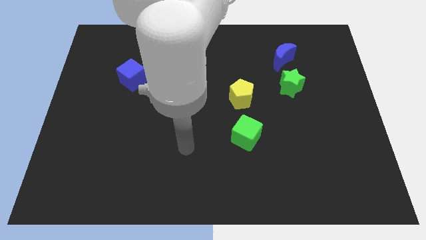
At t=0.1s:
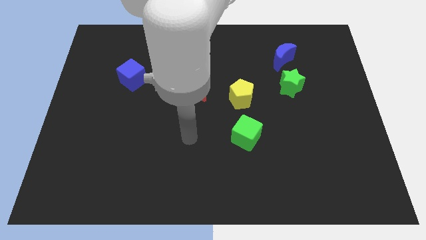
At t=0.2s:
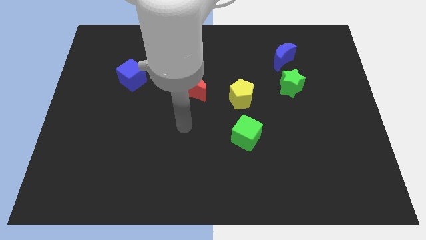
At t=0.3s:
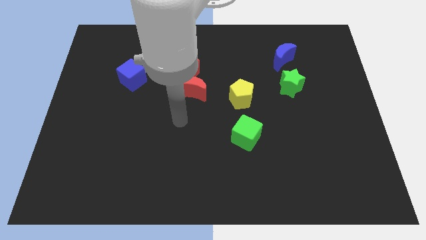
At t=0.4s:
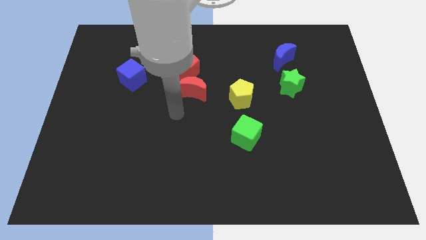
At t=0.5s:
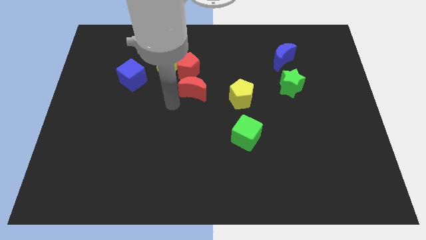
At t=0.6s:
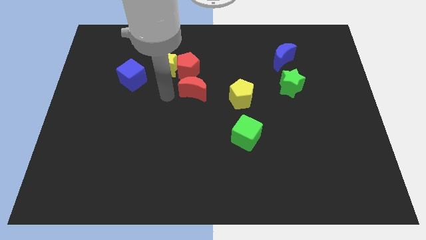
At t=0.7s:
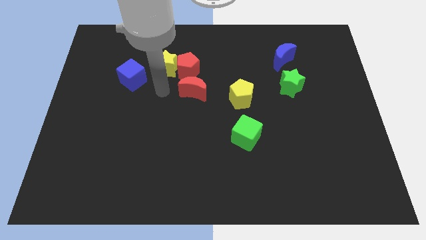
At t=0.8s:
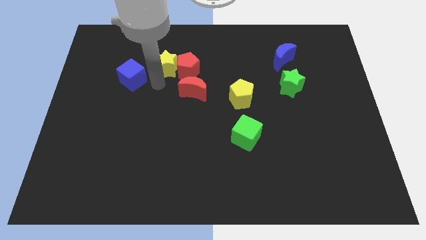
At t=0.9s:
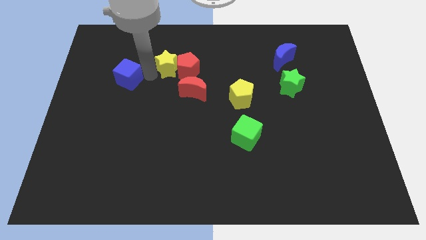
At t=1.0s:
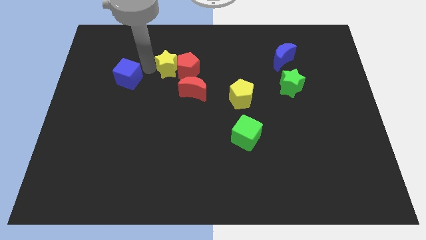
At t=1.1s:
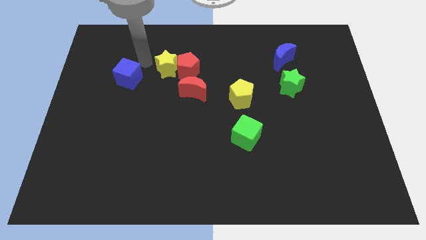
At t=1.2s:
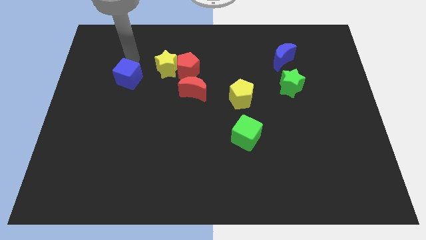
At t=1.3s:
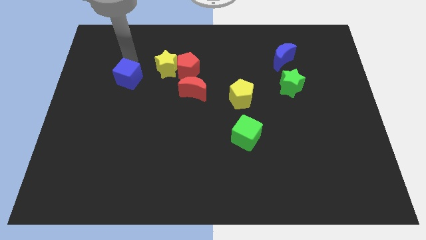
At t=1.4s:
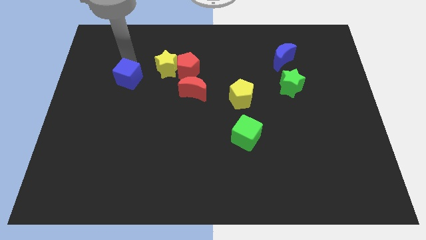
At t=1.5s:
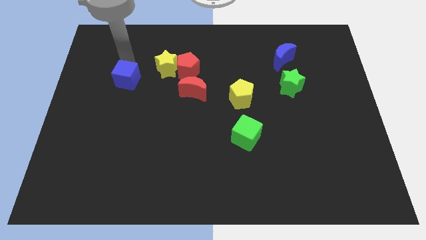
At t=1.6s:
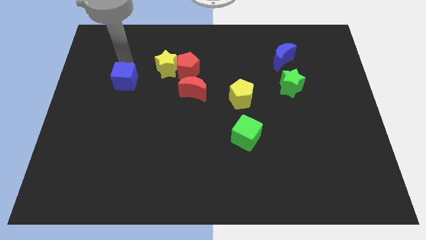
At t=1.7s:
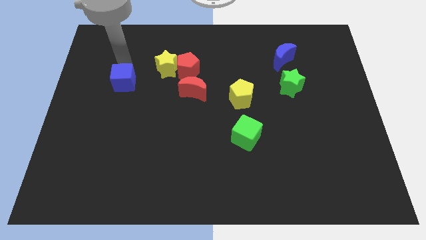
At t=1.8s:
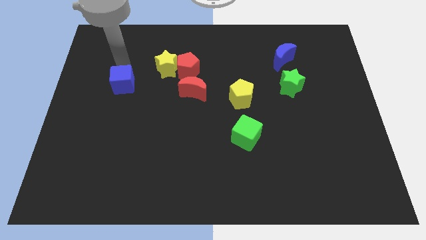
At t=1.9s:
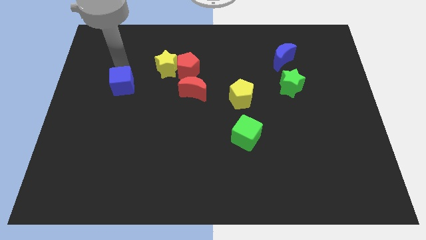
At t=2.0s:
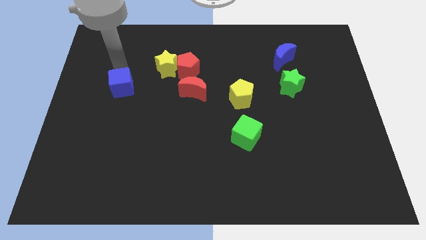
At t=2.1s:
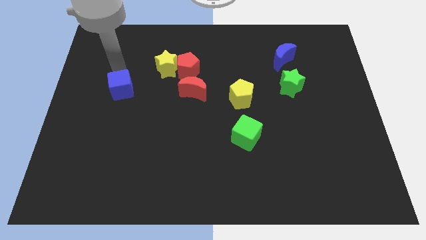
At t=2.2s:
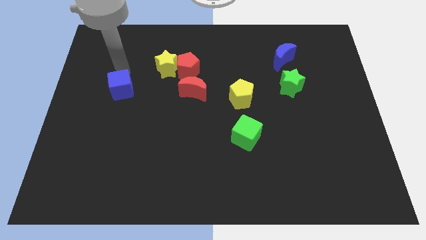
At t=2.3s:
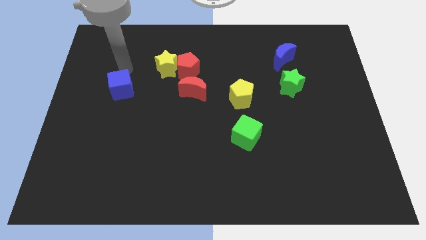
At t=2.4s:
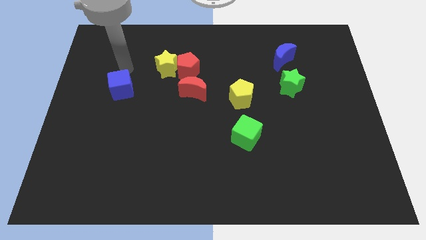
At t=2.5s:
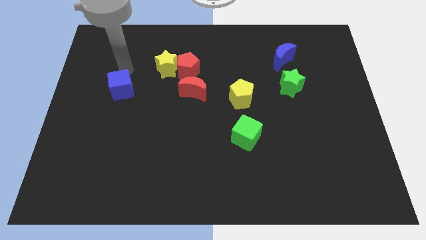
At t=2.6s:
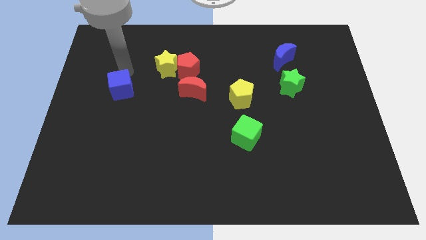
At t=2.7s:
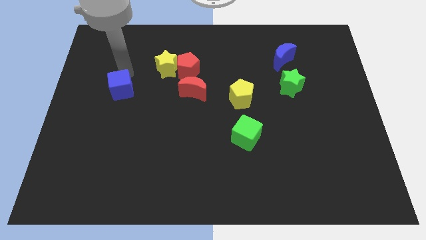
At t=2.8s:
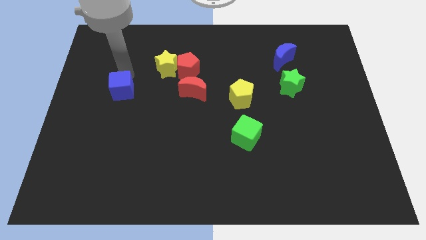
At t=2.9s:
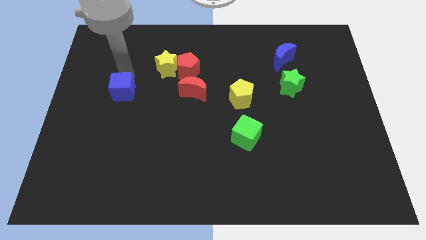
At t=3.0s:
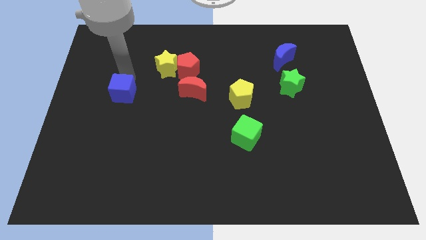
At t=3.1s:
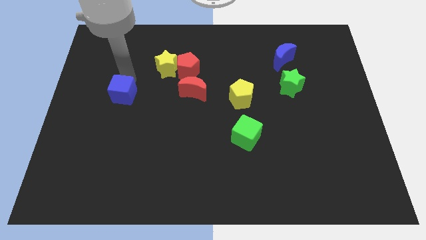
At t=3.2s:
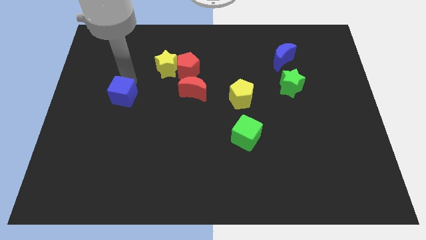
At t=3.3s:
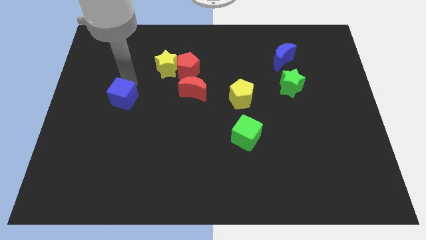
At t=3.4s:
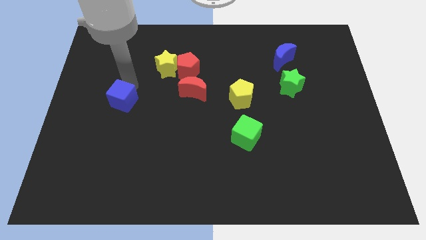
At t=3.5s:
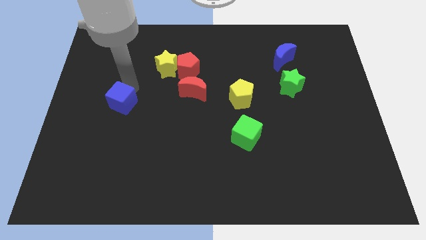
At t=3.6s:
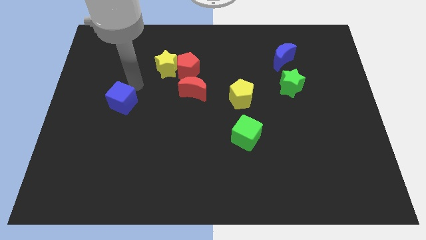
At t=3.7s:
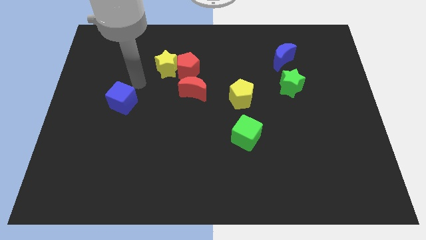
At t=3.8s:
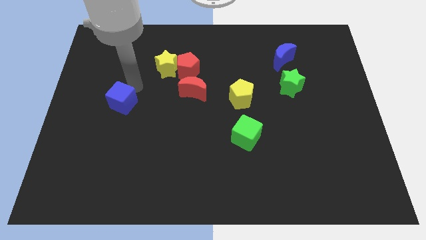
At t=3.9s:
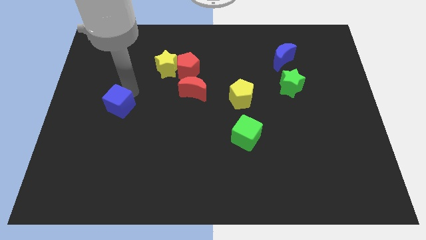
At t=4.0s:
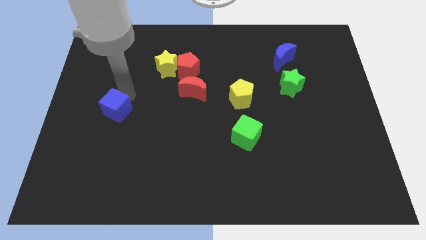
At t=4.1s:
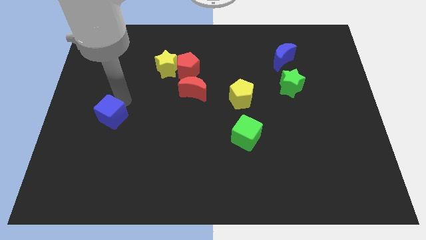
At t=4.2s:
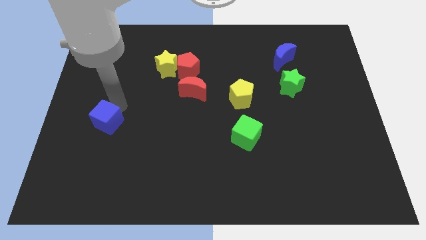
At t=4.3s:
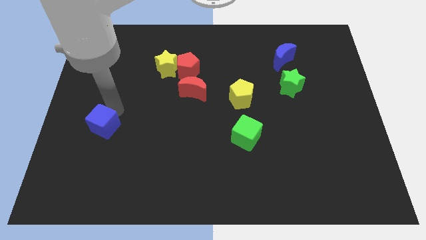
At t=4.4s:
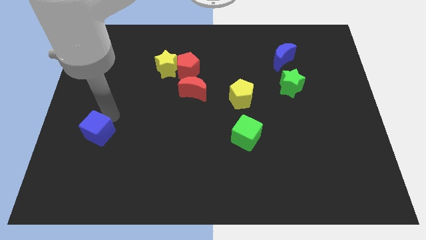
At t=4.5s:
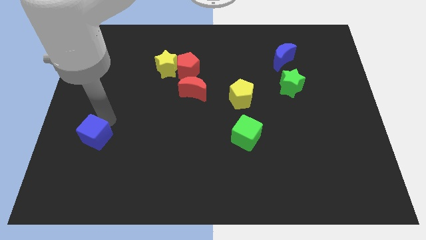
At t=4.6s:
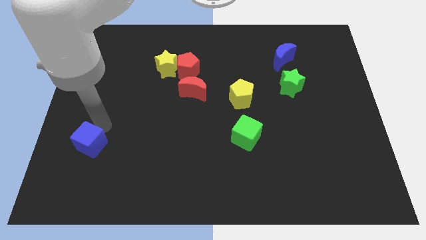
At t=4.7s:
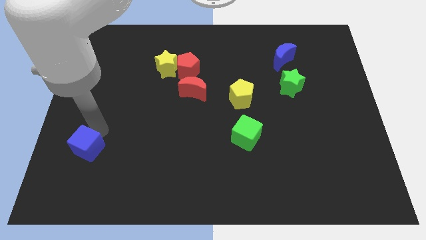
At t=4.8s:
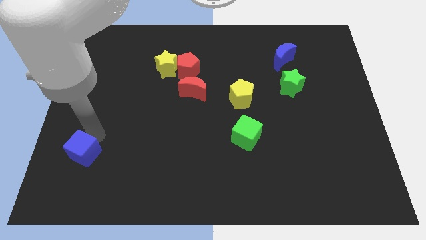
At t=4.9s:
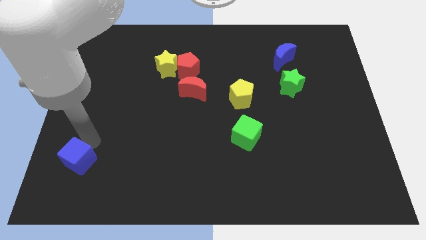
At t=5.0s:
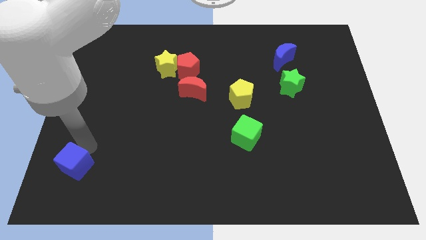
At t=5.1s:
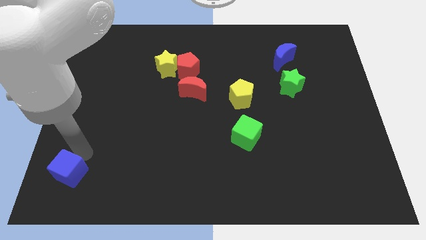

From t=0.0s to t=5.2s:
slide the blue cube to the bottom left corner

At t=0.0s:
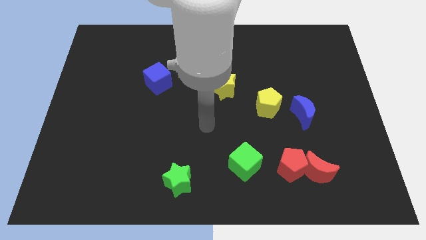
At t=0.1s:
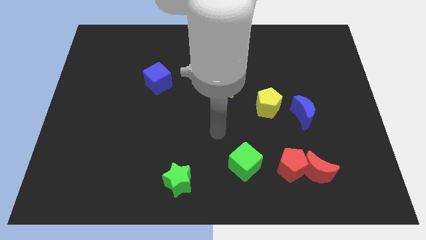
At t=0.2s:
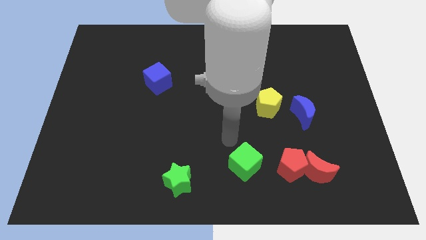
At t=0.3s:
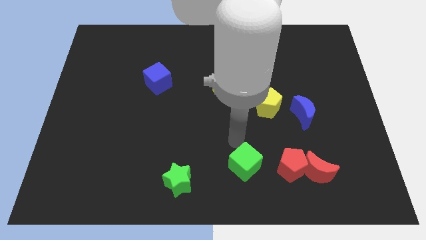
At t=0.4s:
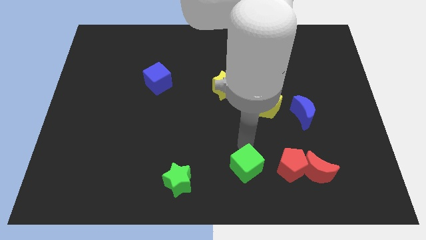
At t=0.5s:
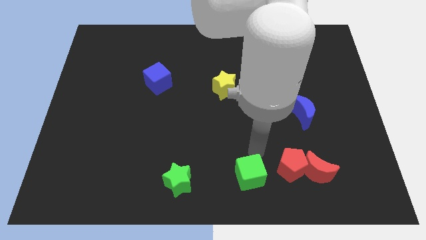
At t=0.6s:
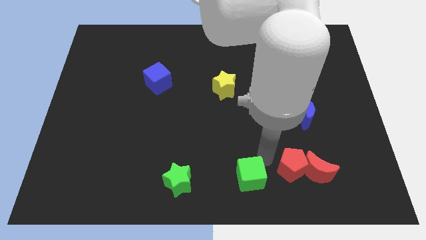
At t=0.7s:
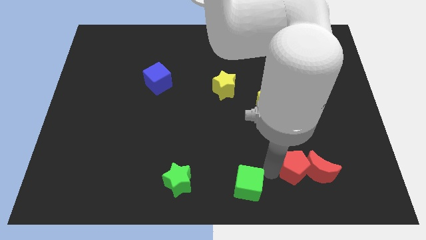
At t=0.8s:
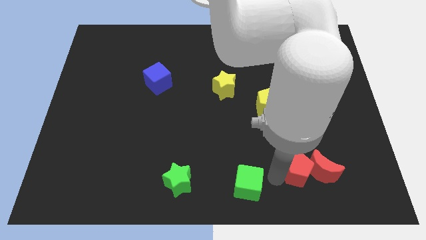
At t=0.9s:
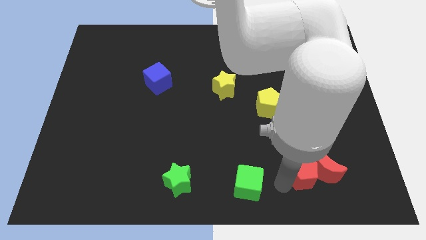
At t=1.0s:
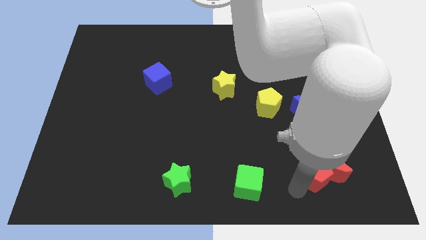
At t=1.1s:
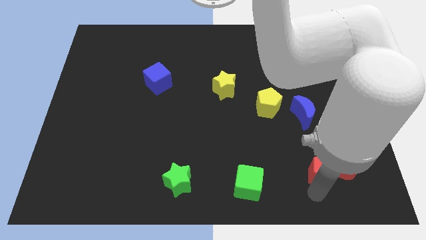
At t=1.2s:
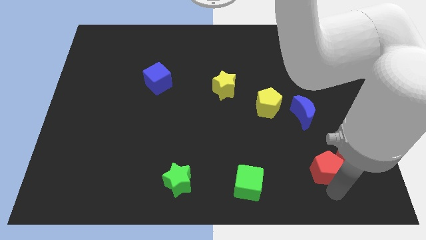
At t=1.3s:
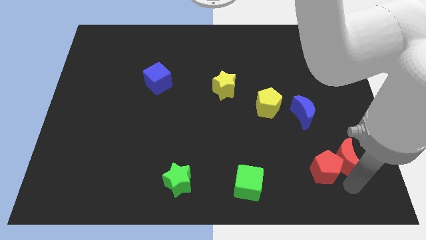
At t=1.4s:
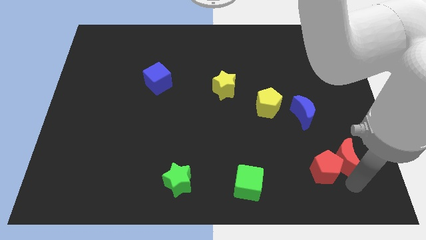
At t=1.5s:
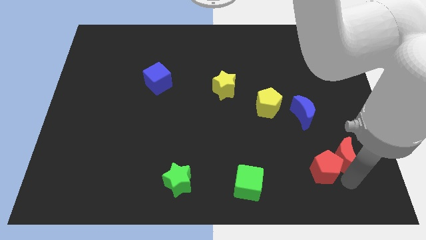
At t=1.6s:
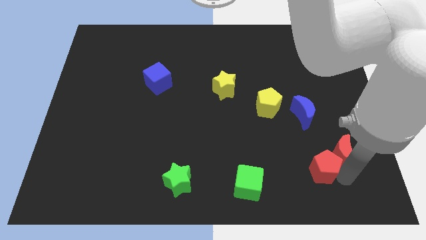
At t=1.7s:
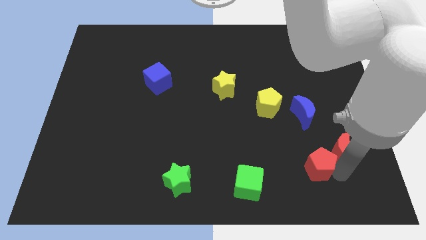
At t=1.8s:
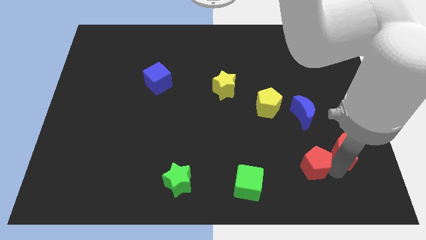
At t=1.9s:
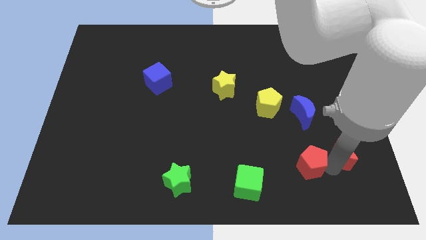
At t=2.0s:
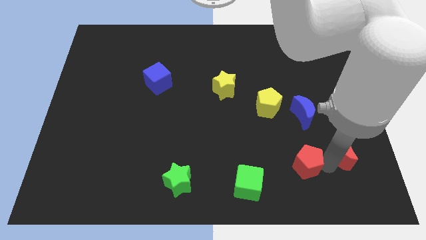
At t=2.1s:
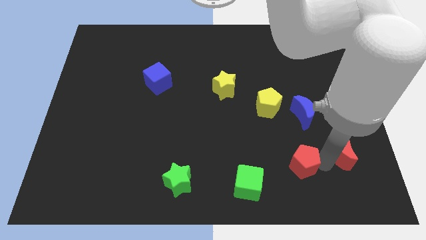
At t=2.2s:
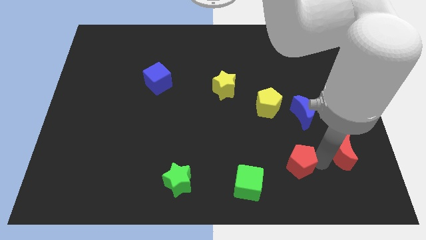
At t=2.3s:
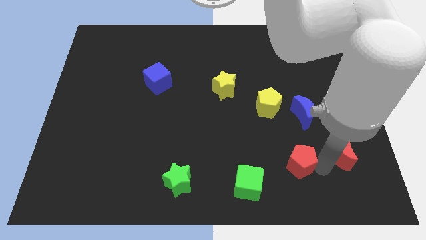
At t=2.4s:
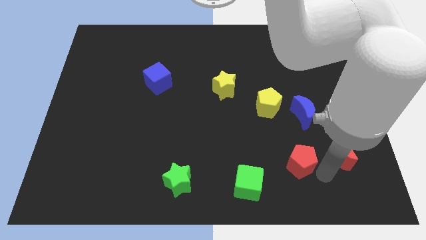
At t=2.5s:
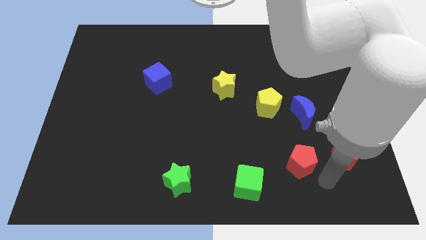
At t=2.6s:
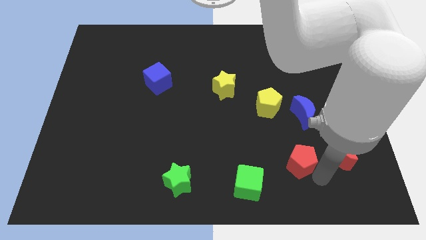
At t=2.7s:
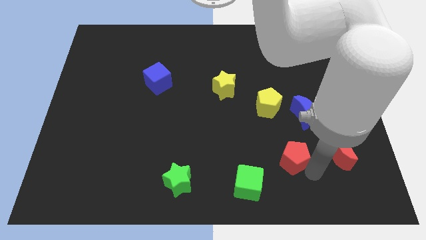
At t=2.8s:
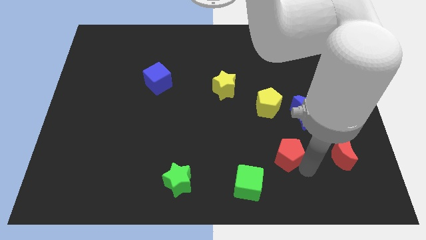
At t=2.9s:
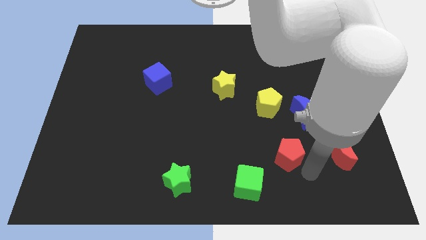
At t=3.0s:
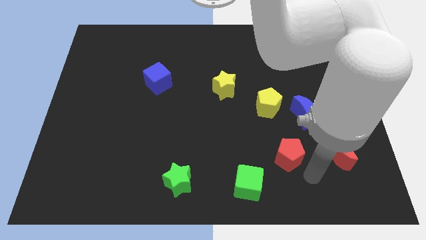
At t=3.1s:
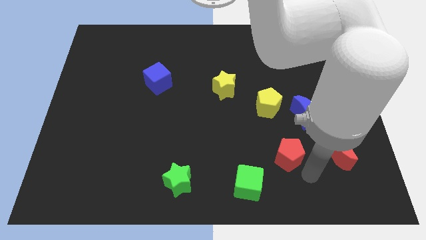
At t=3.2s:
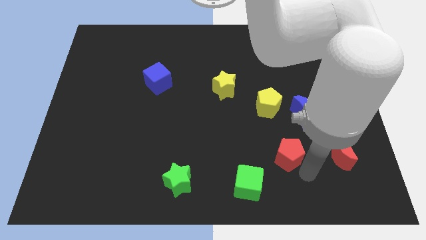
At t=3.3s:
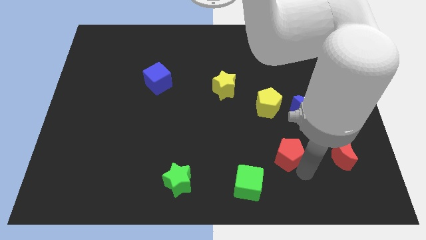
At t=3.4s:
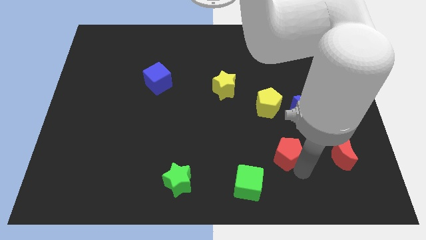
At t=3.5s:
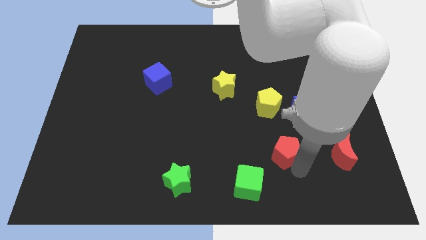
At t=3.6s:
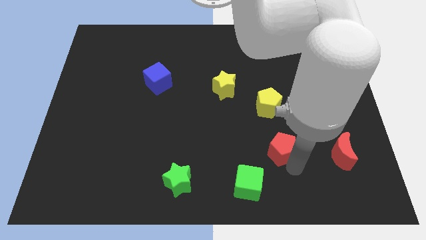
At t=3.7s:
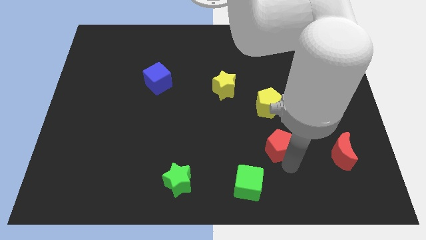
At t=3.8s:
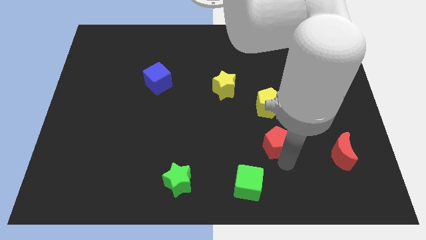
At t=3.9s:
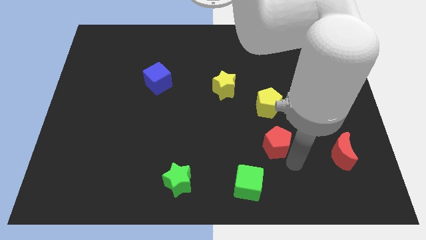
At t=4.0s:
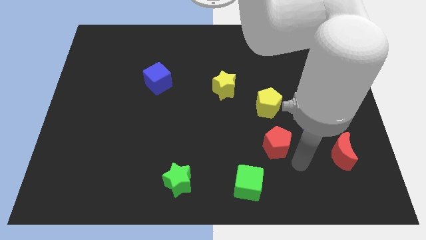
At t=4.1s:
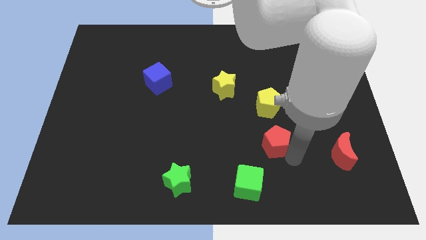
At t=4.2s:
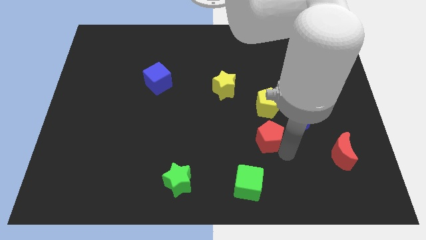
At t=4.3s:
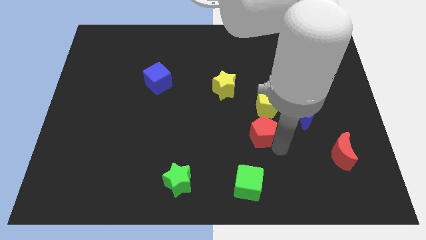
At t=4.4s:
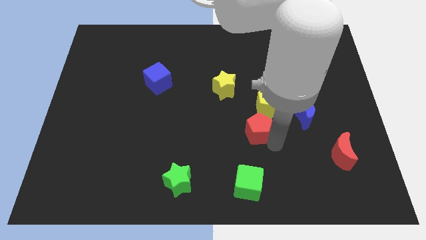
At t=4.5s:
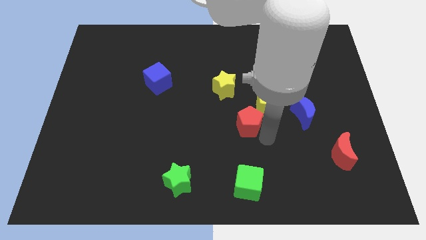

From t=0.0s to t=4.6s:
move the red pentagon to the middle
